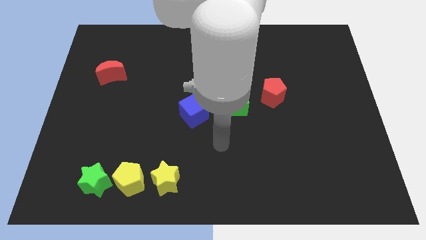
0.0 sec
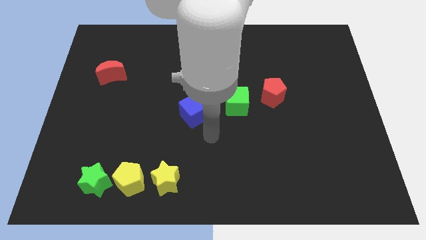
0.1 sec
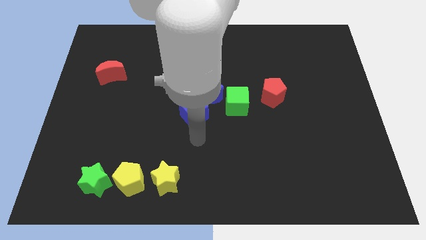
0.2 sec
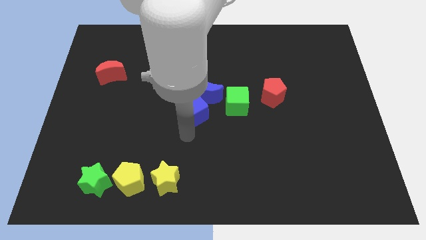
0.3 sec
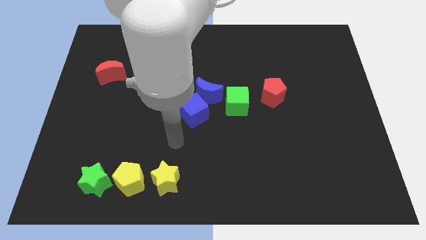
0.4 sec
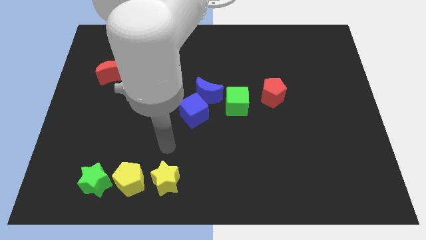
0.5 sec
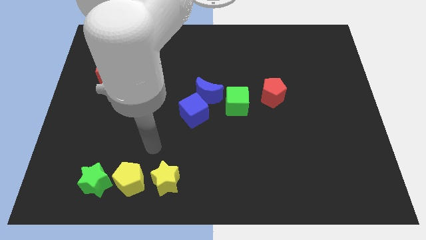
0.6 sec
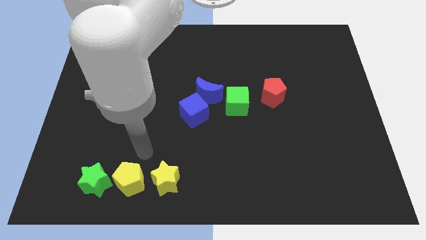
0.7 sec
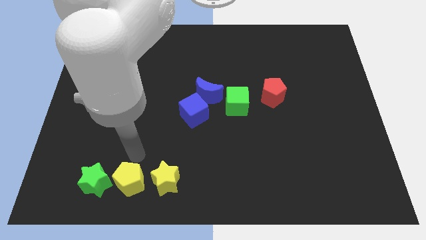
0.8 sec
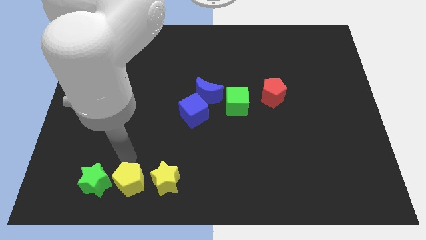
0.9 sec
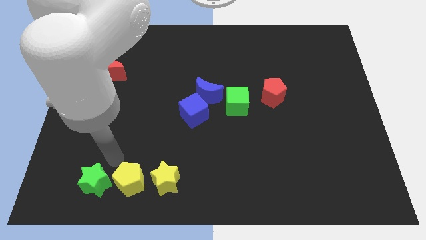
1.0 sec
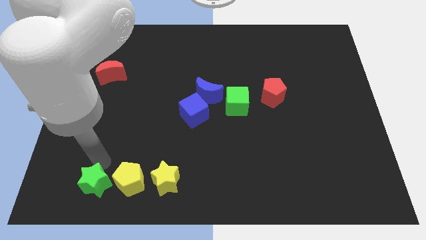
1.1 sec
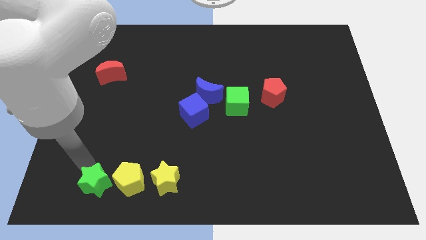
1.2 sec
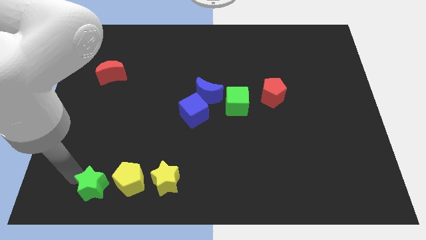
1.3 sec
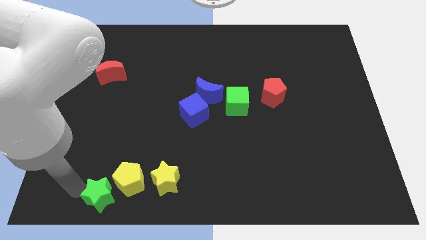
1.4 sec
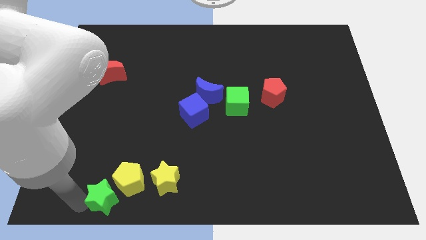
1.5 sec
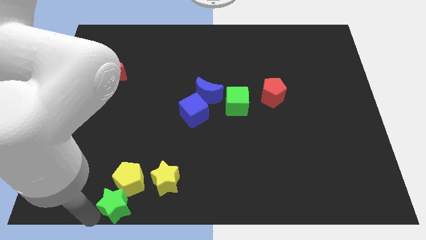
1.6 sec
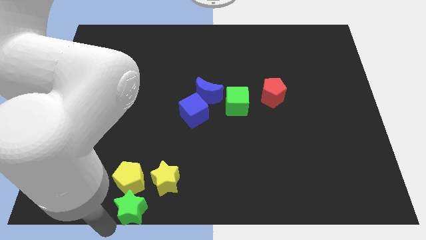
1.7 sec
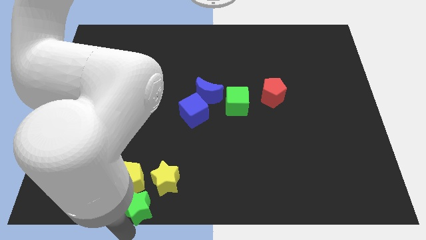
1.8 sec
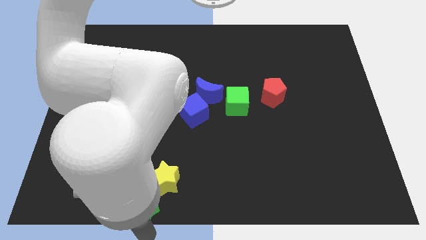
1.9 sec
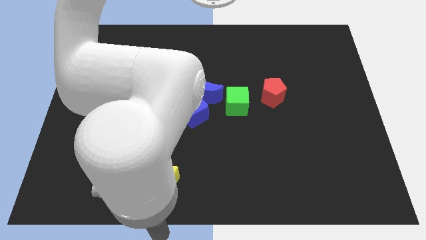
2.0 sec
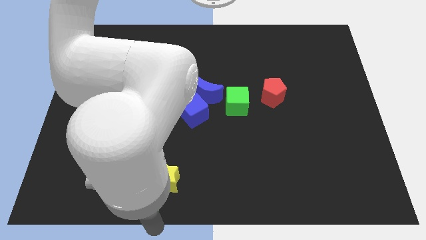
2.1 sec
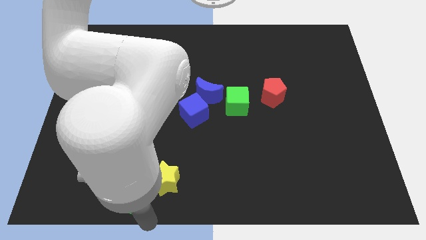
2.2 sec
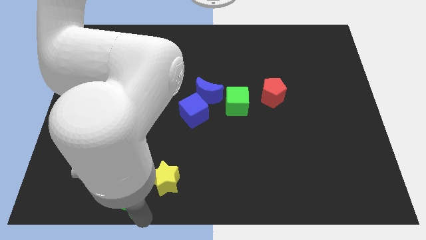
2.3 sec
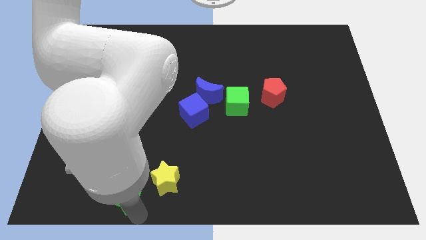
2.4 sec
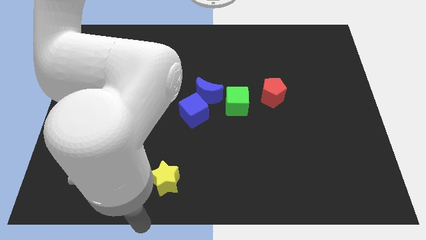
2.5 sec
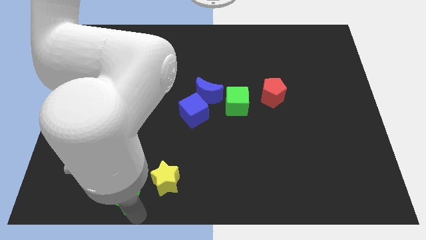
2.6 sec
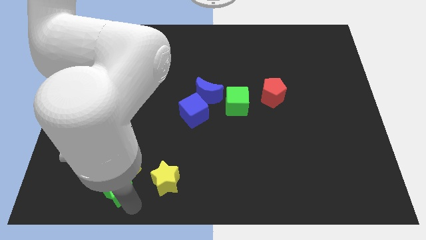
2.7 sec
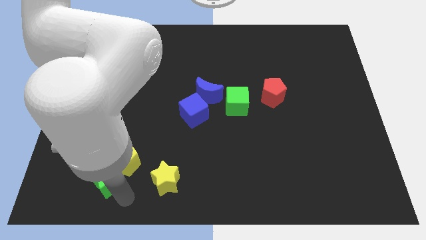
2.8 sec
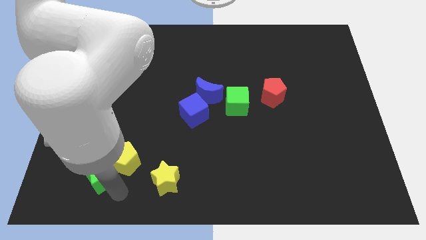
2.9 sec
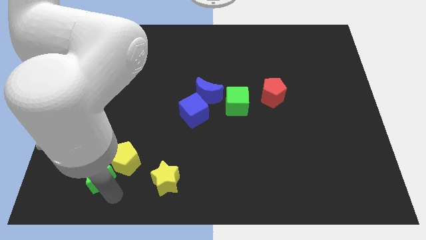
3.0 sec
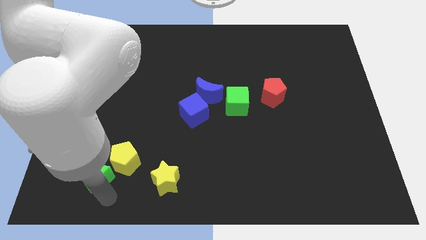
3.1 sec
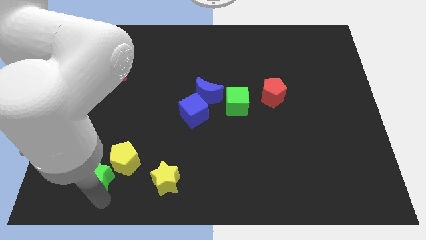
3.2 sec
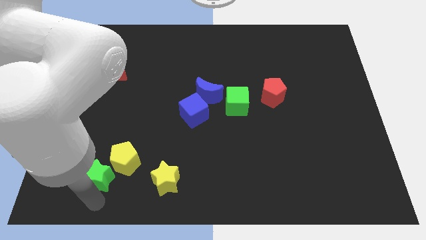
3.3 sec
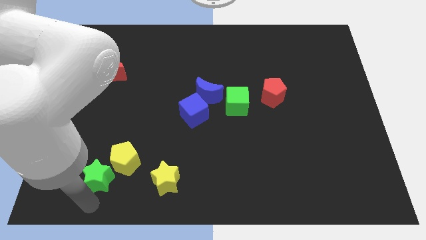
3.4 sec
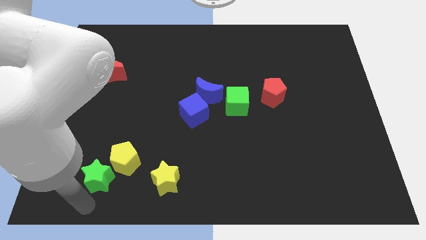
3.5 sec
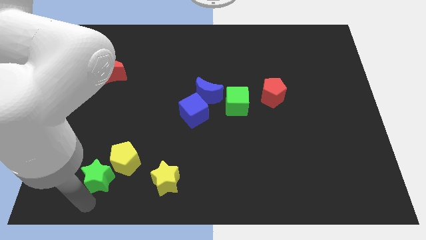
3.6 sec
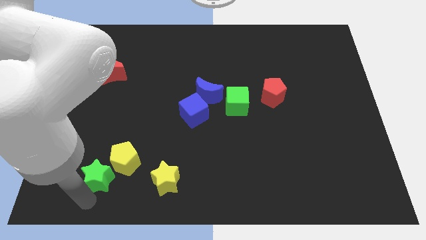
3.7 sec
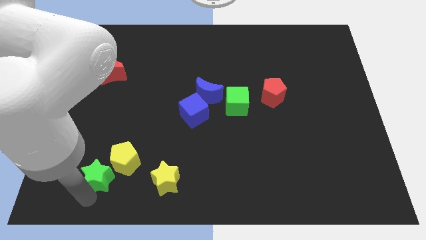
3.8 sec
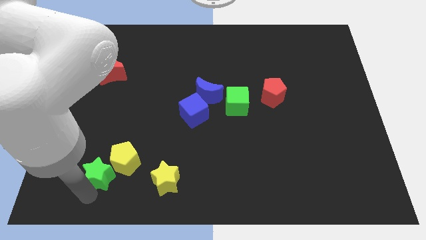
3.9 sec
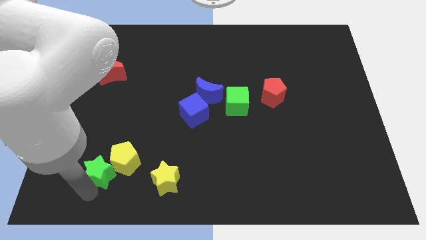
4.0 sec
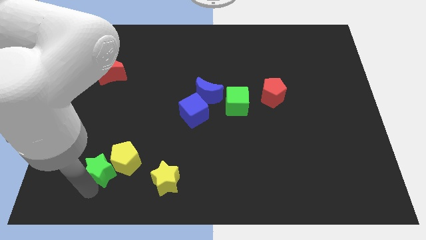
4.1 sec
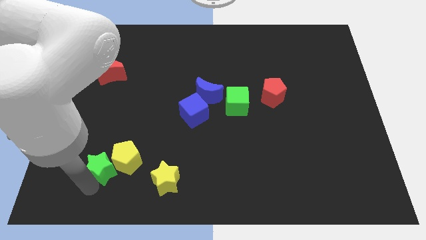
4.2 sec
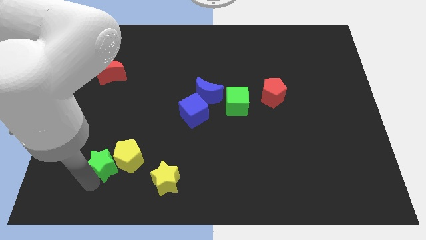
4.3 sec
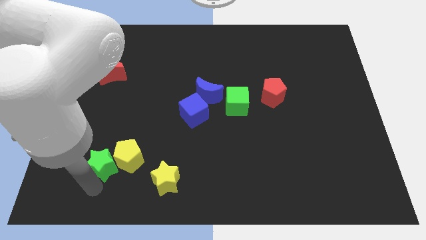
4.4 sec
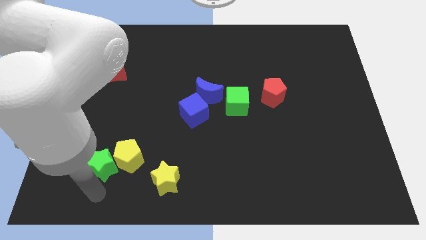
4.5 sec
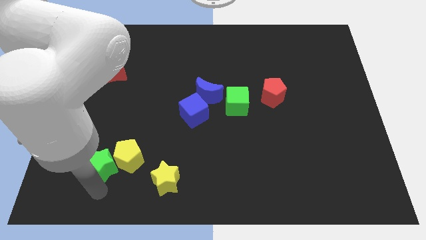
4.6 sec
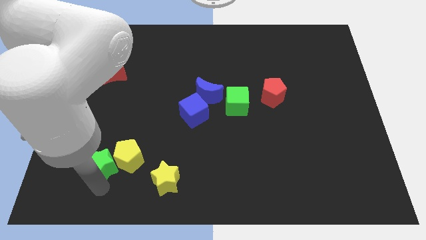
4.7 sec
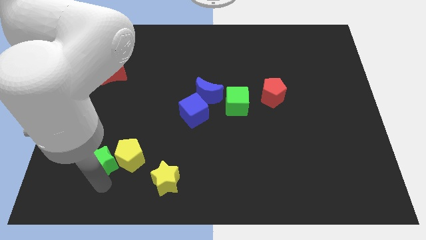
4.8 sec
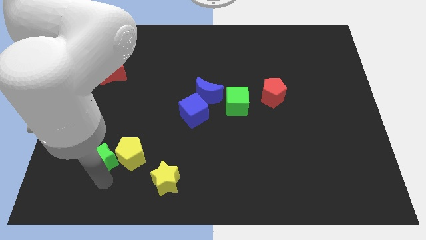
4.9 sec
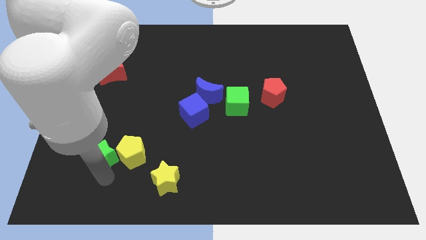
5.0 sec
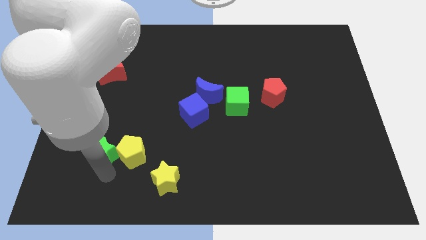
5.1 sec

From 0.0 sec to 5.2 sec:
move the green star a bit up

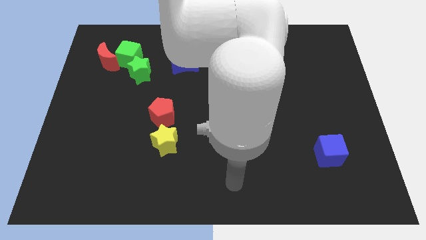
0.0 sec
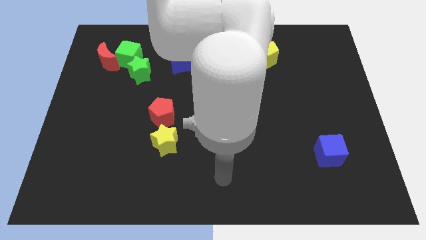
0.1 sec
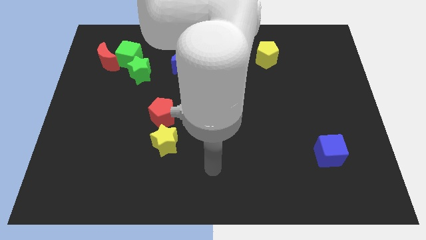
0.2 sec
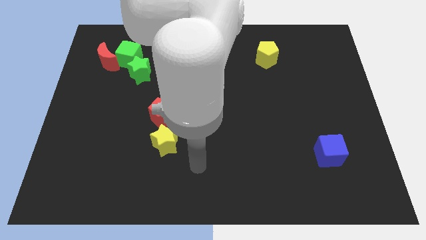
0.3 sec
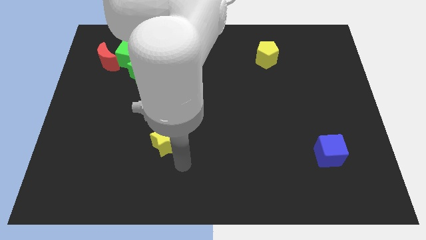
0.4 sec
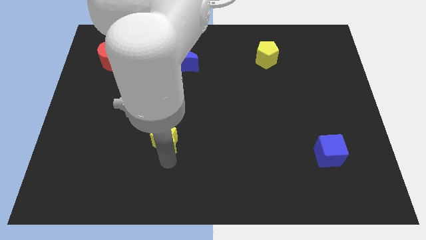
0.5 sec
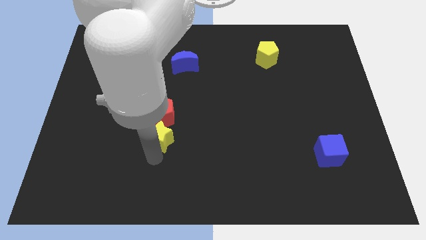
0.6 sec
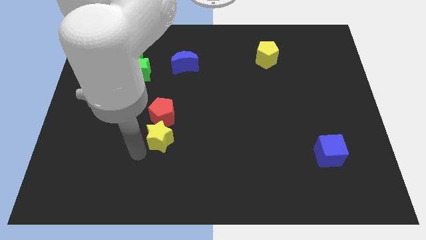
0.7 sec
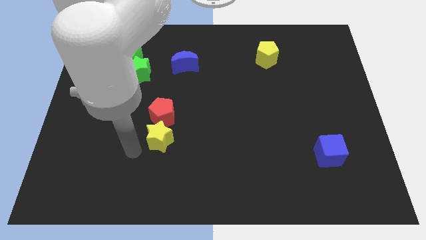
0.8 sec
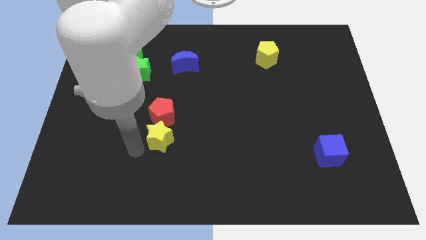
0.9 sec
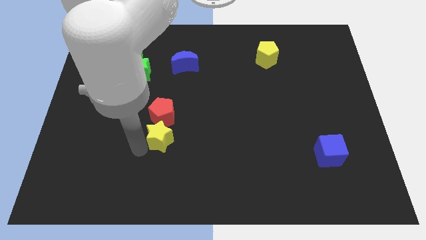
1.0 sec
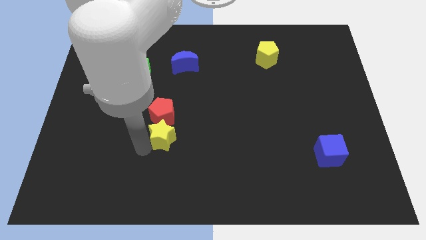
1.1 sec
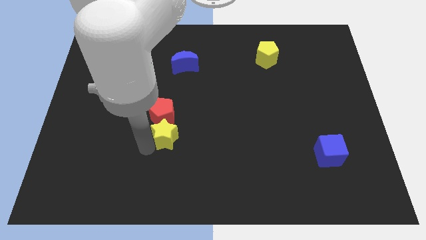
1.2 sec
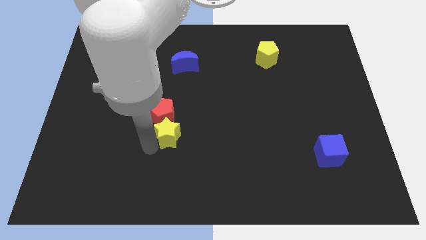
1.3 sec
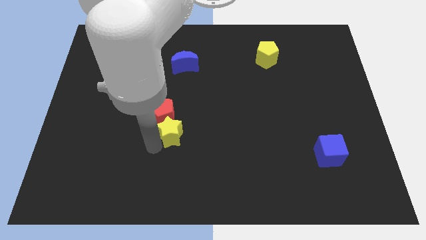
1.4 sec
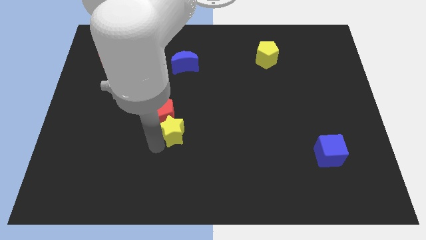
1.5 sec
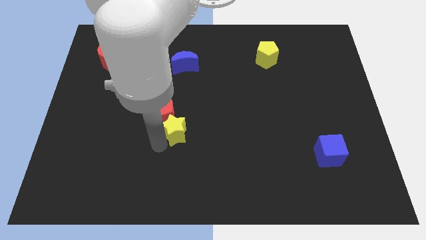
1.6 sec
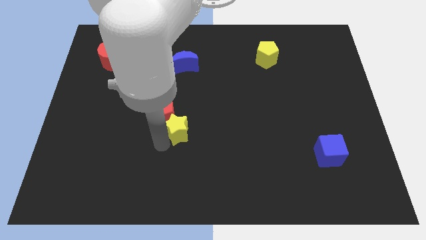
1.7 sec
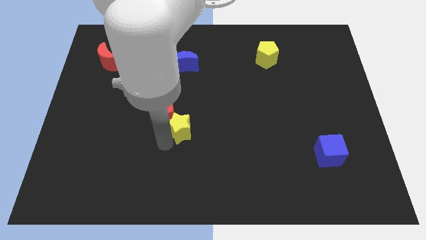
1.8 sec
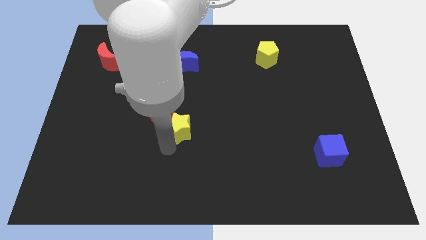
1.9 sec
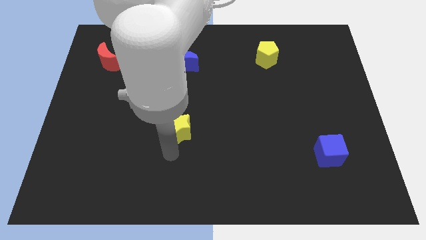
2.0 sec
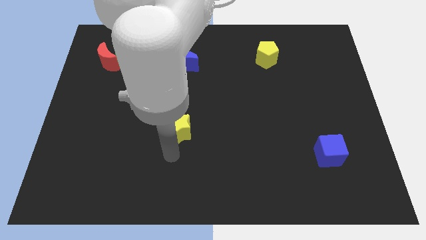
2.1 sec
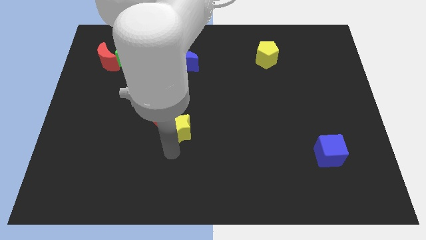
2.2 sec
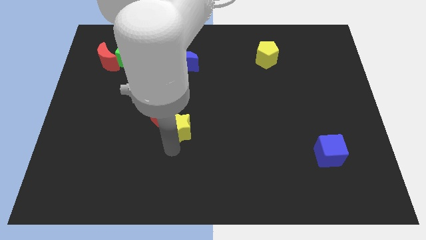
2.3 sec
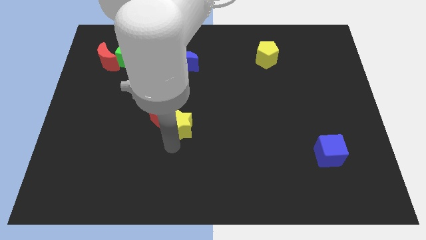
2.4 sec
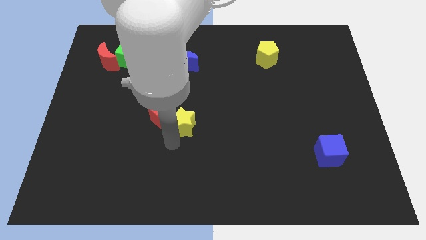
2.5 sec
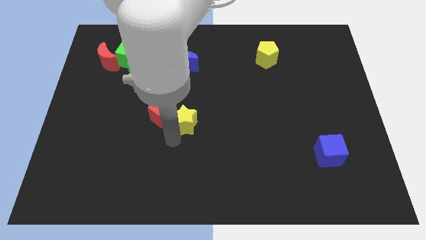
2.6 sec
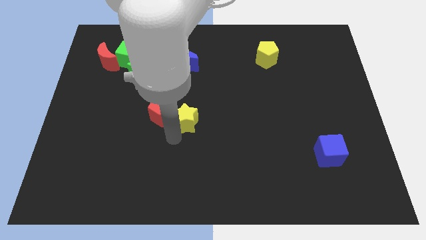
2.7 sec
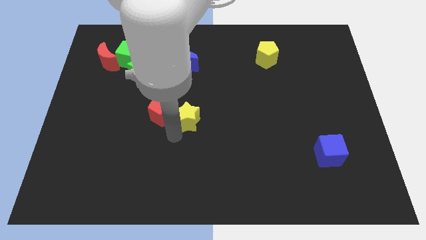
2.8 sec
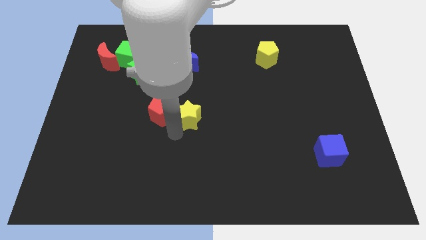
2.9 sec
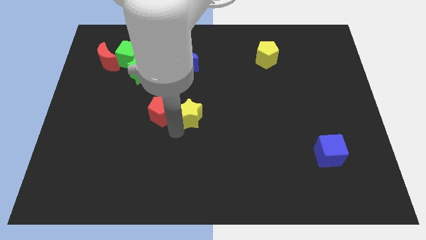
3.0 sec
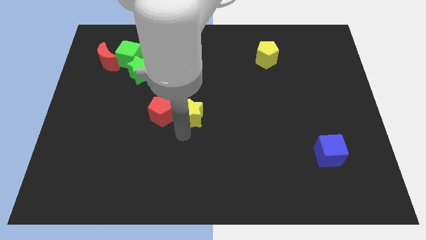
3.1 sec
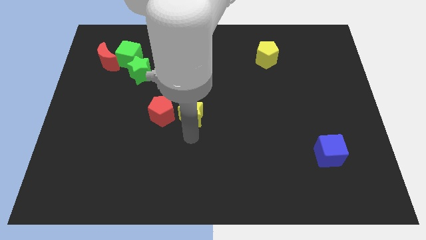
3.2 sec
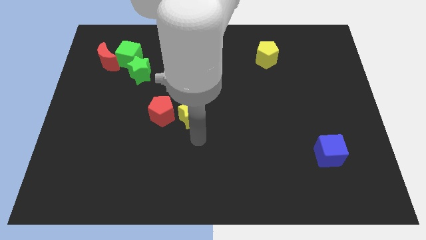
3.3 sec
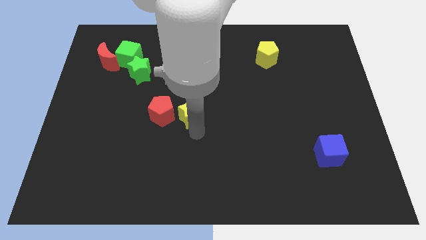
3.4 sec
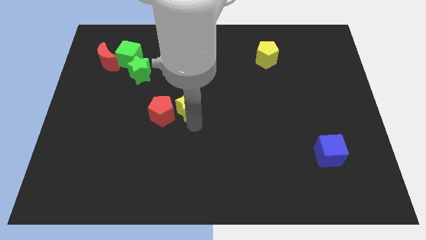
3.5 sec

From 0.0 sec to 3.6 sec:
push the yellow star a bit up
